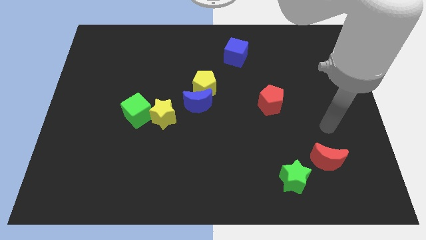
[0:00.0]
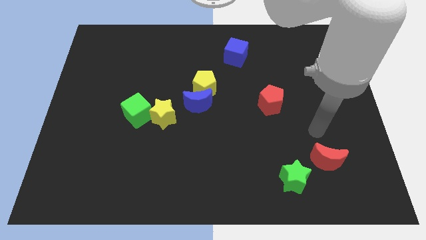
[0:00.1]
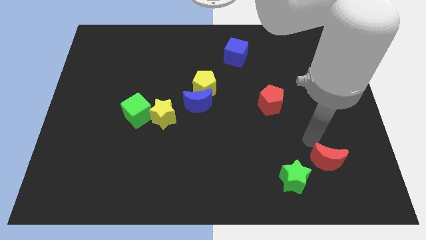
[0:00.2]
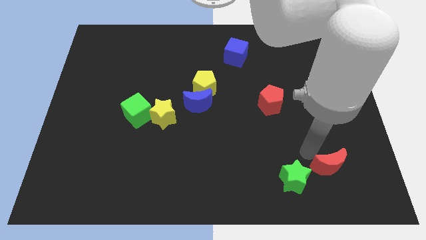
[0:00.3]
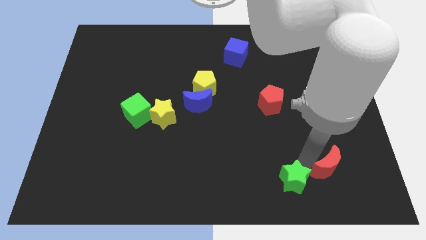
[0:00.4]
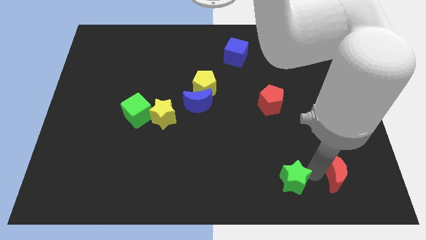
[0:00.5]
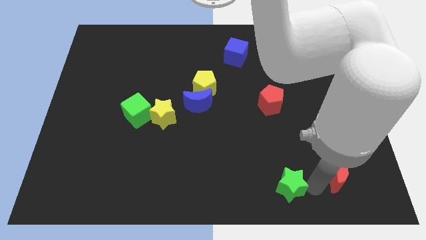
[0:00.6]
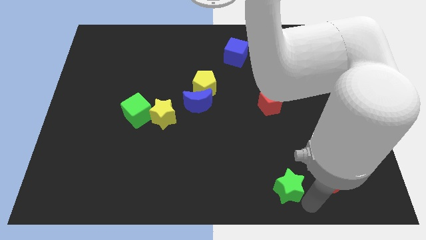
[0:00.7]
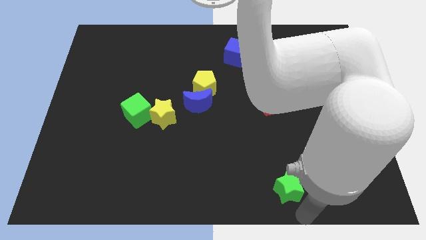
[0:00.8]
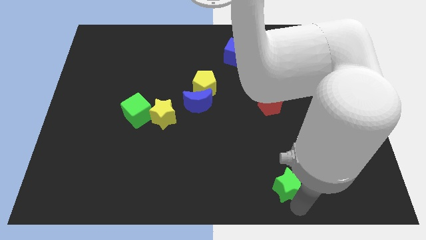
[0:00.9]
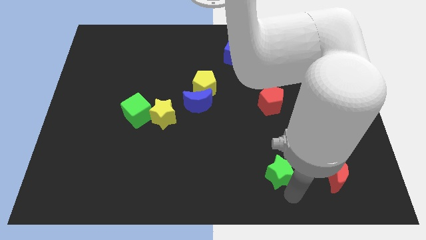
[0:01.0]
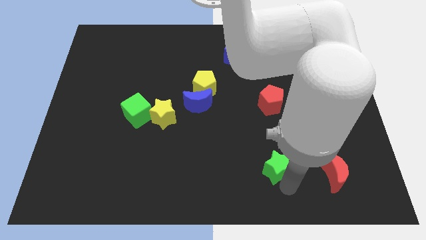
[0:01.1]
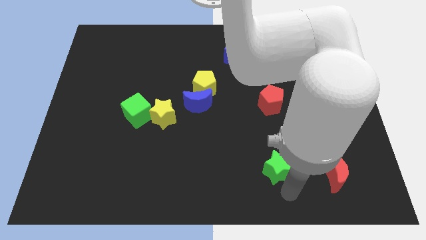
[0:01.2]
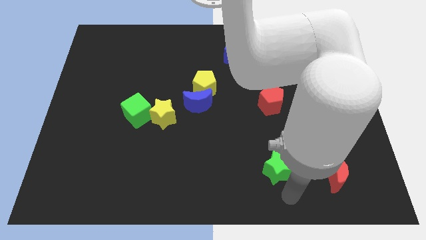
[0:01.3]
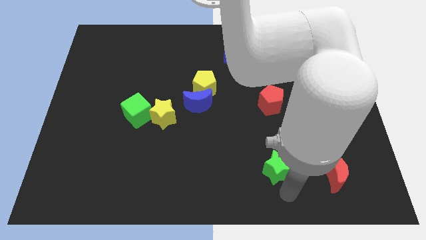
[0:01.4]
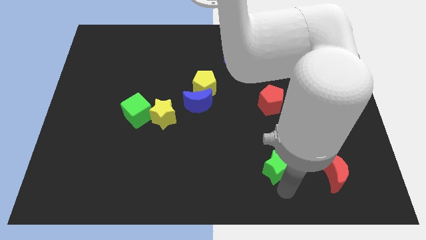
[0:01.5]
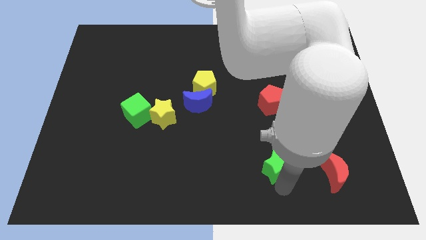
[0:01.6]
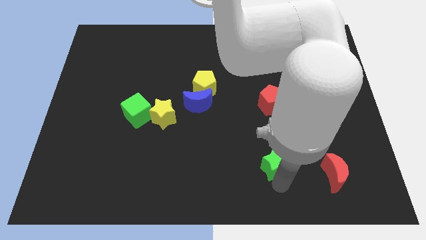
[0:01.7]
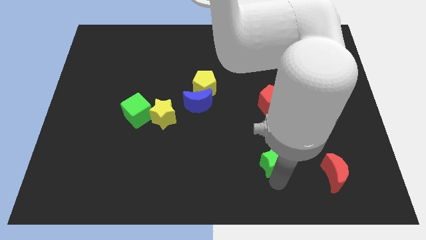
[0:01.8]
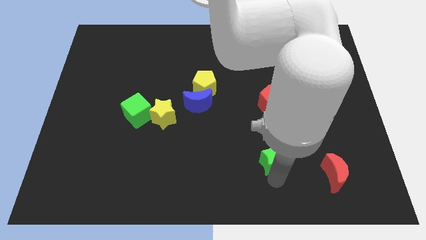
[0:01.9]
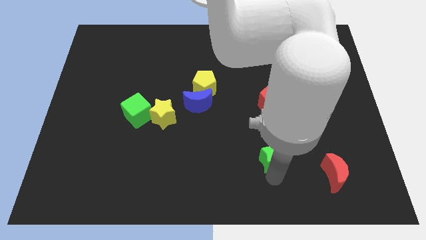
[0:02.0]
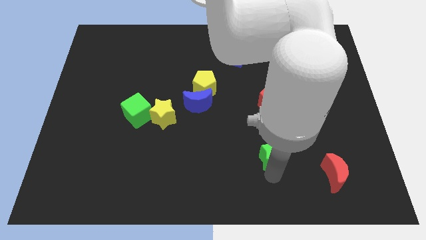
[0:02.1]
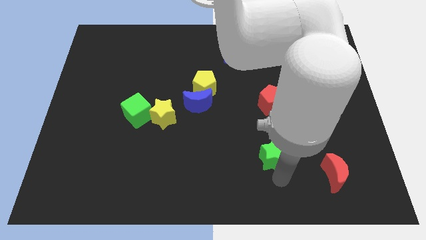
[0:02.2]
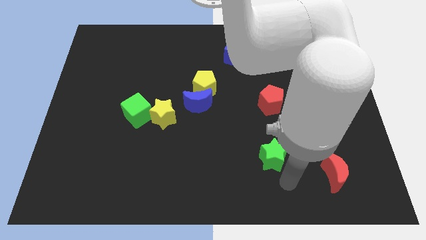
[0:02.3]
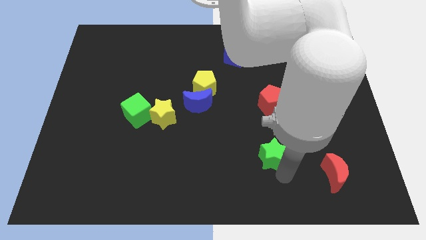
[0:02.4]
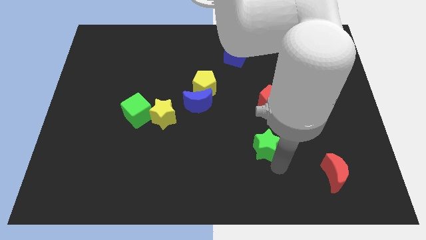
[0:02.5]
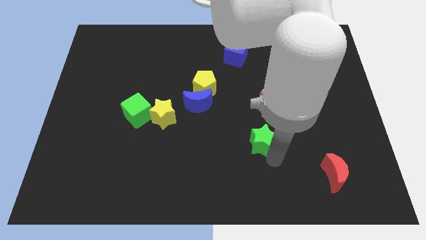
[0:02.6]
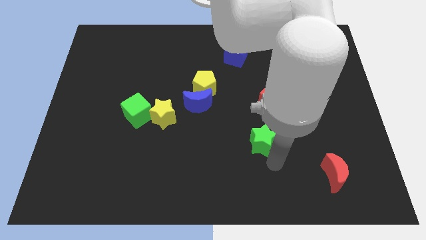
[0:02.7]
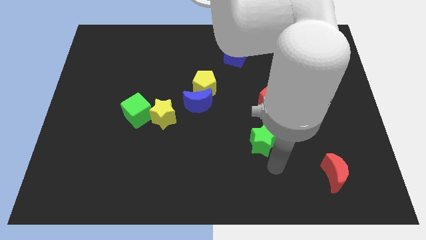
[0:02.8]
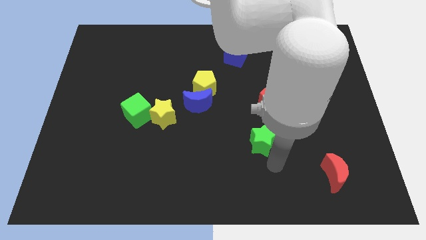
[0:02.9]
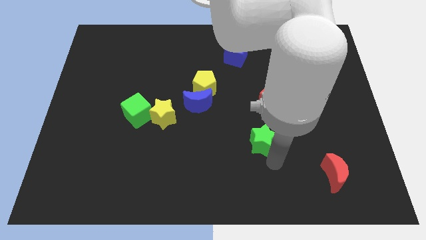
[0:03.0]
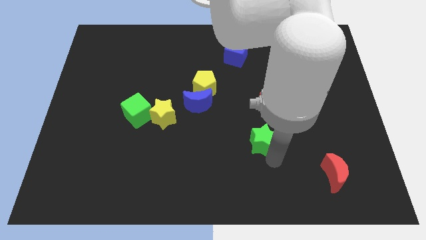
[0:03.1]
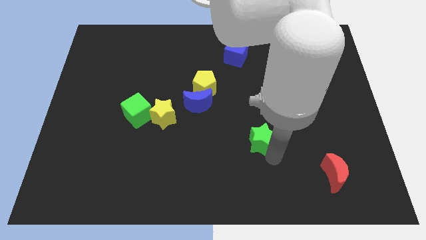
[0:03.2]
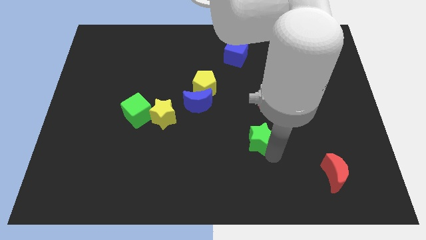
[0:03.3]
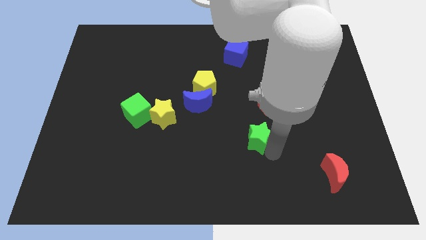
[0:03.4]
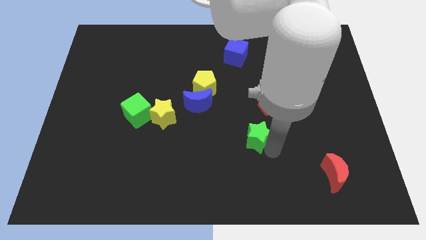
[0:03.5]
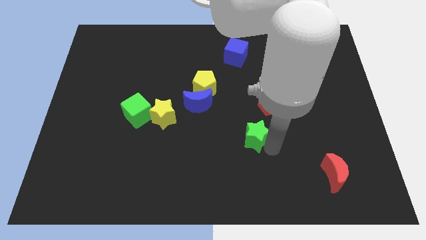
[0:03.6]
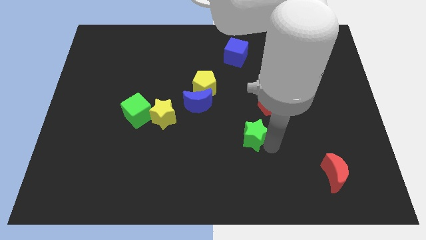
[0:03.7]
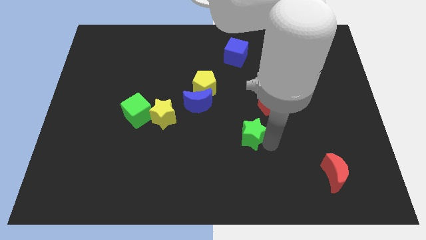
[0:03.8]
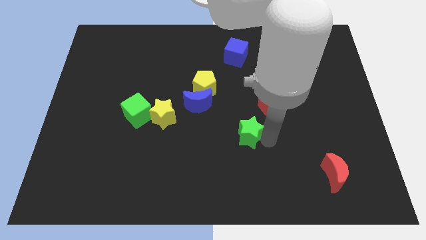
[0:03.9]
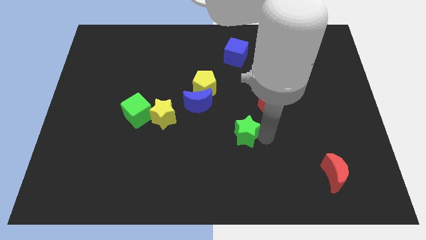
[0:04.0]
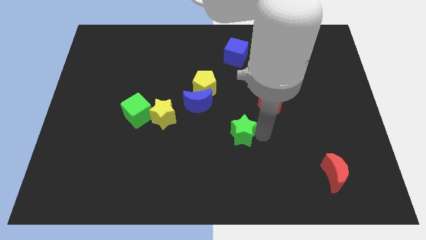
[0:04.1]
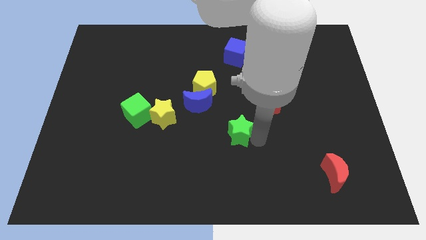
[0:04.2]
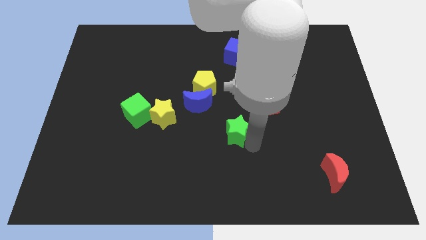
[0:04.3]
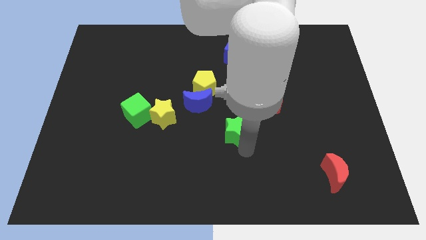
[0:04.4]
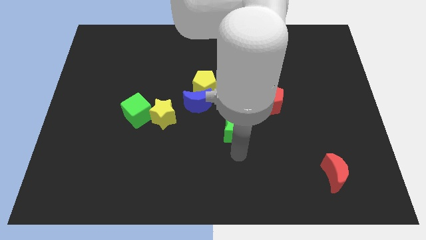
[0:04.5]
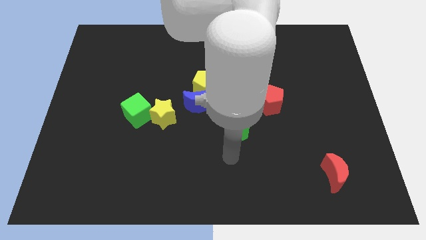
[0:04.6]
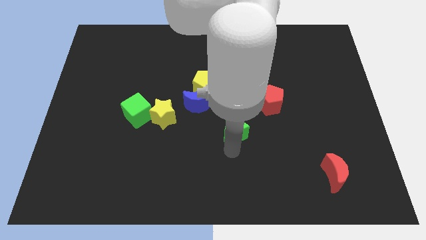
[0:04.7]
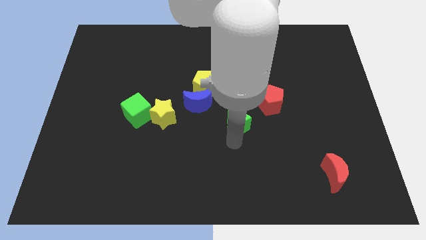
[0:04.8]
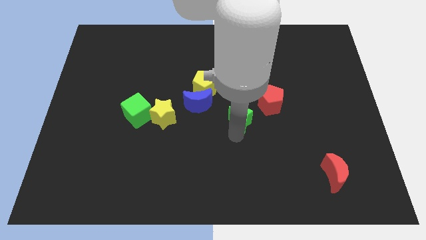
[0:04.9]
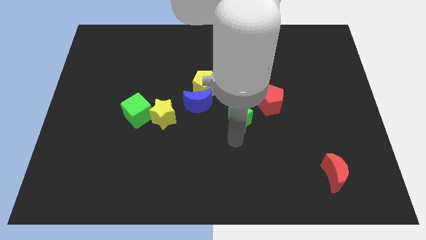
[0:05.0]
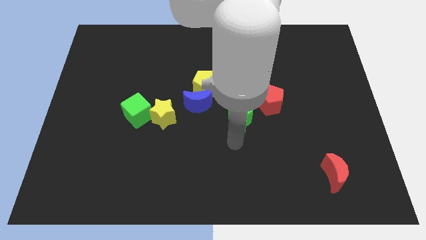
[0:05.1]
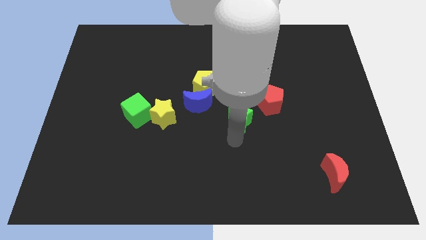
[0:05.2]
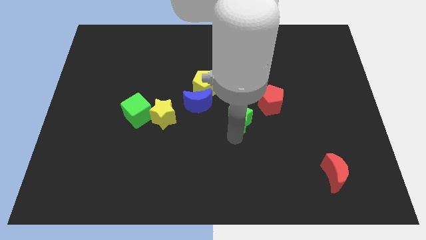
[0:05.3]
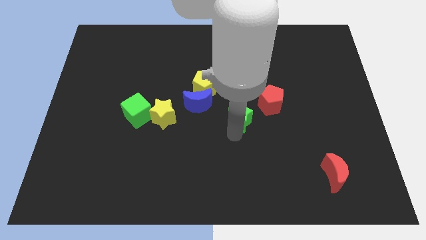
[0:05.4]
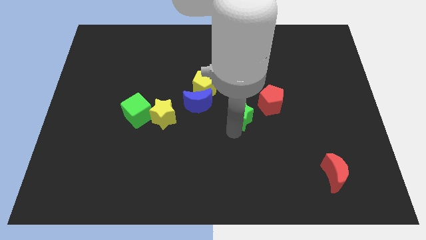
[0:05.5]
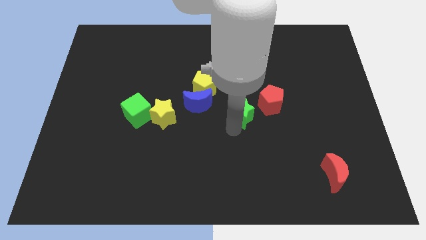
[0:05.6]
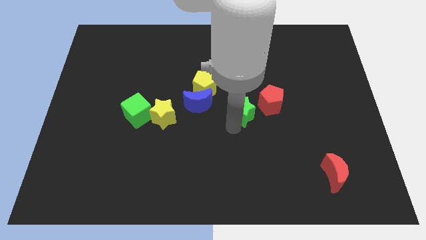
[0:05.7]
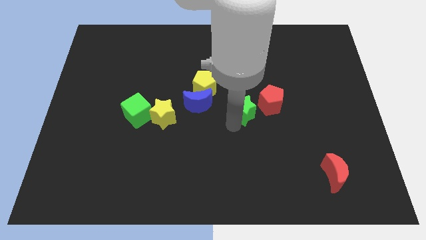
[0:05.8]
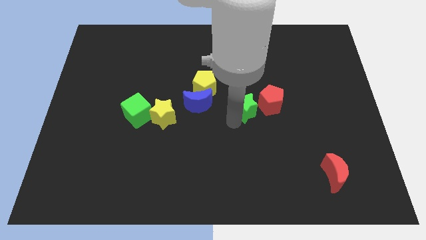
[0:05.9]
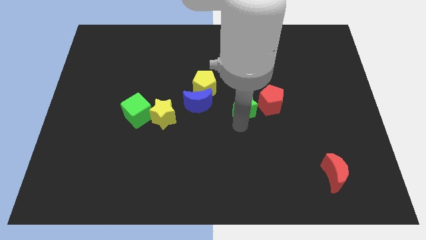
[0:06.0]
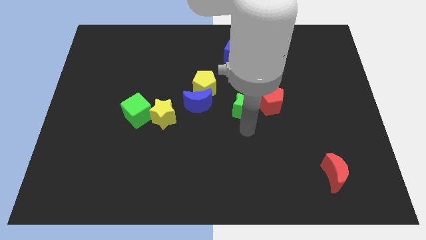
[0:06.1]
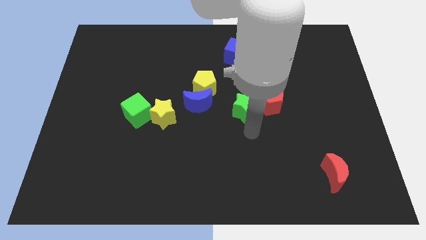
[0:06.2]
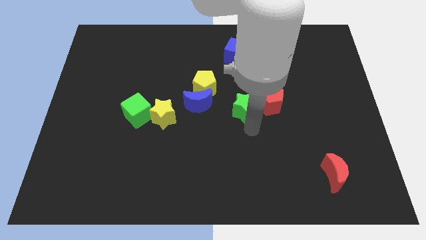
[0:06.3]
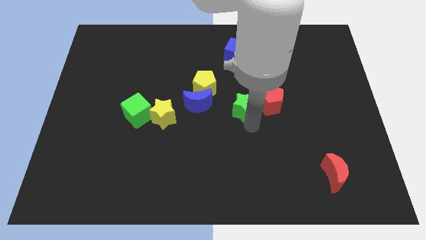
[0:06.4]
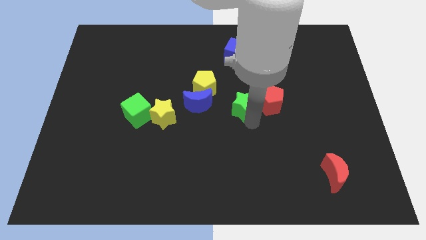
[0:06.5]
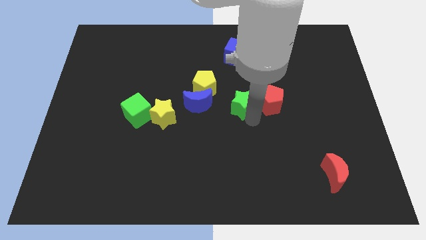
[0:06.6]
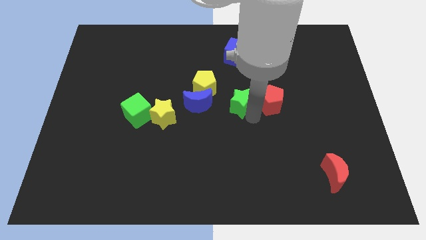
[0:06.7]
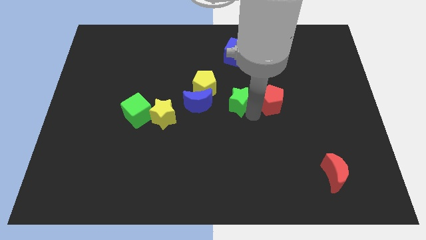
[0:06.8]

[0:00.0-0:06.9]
put the green star to the bottom of the blue cube
